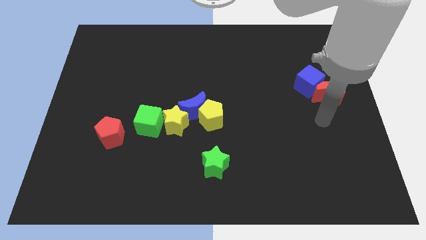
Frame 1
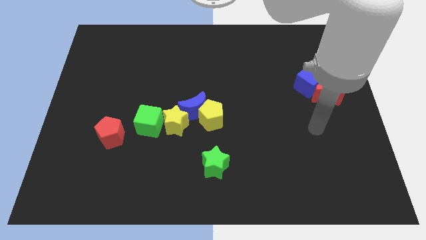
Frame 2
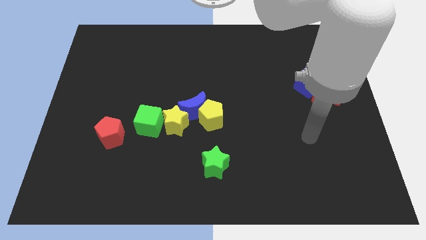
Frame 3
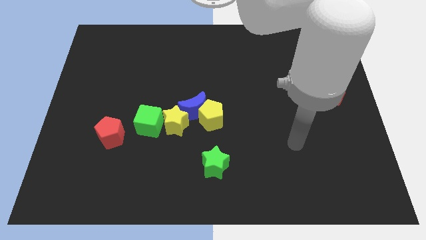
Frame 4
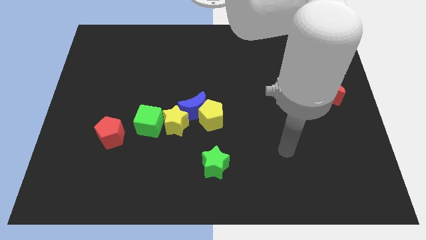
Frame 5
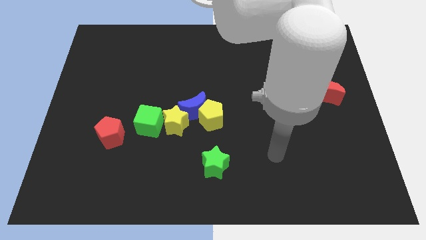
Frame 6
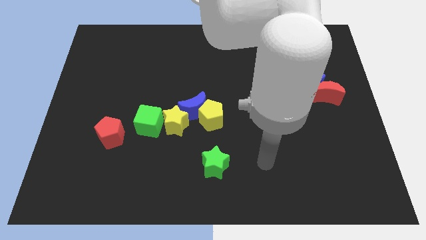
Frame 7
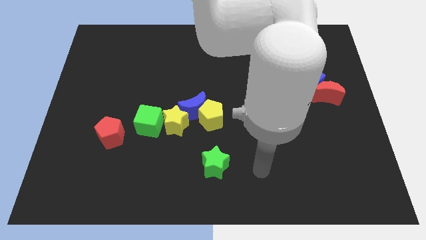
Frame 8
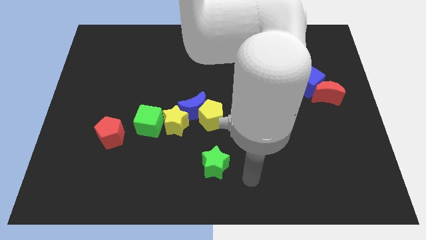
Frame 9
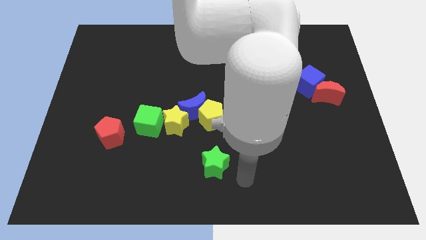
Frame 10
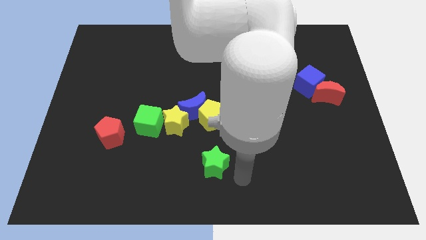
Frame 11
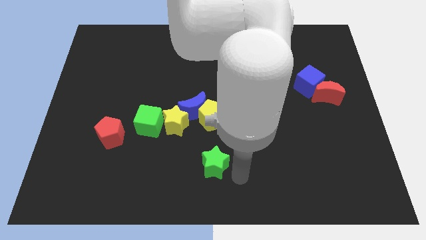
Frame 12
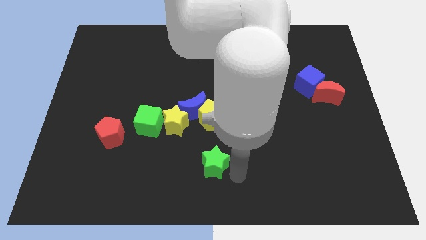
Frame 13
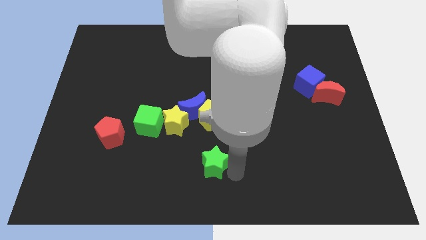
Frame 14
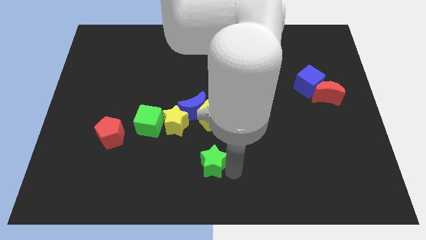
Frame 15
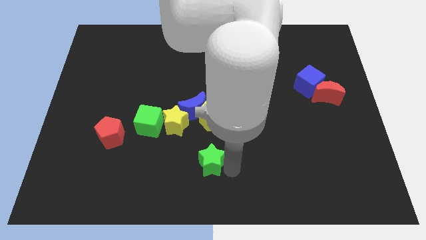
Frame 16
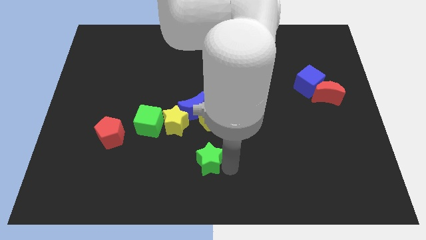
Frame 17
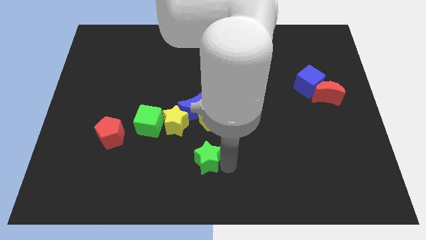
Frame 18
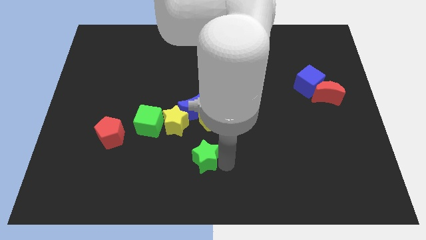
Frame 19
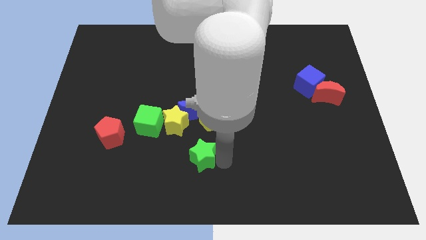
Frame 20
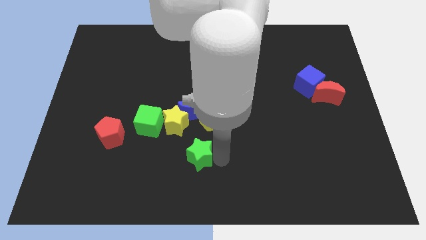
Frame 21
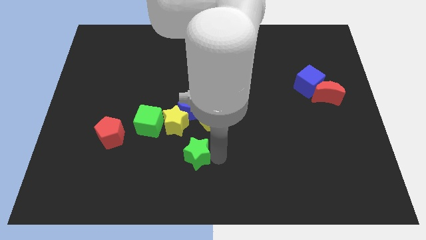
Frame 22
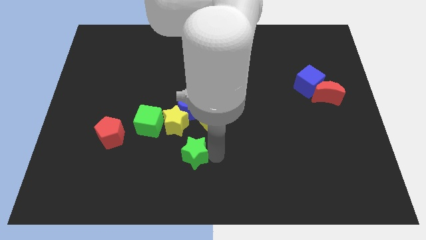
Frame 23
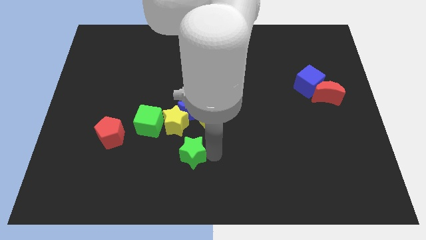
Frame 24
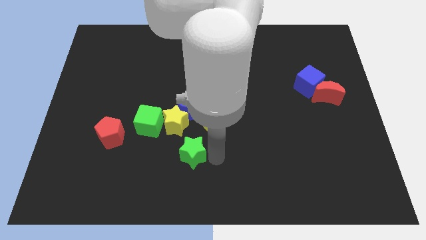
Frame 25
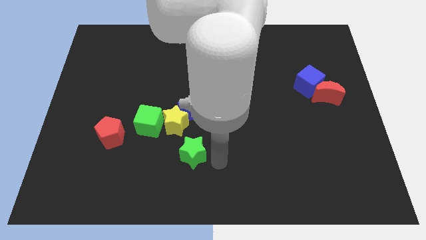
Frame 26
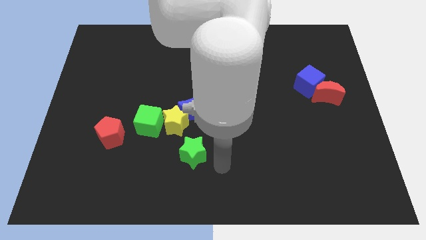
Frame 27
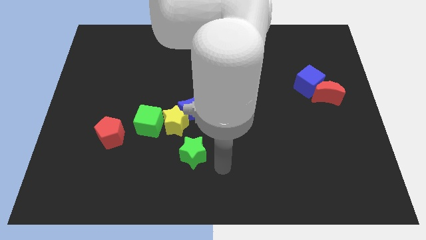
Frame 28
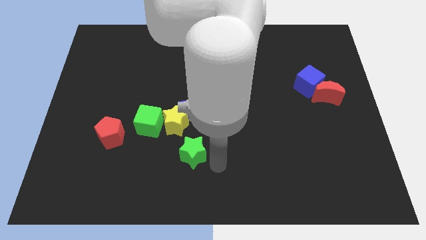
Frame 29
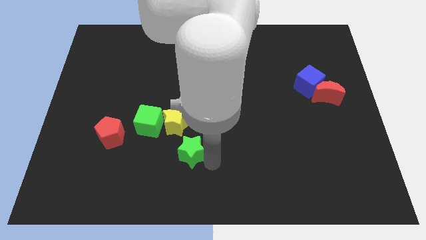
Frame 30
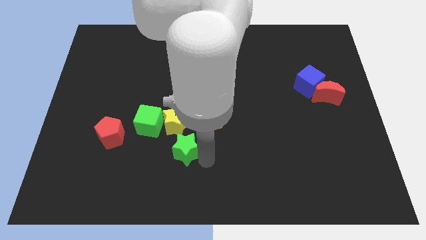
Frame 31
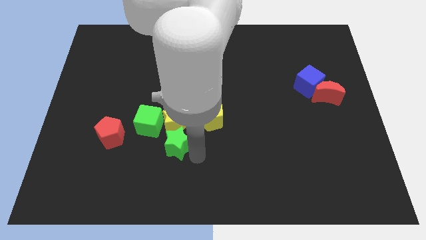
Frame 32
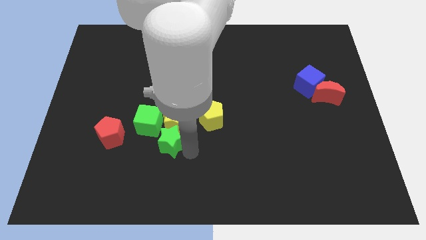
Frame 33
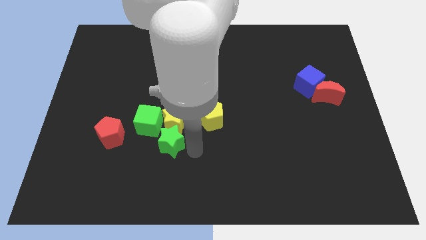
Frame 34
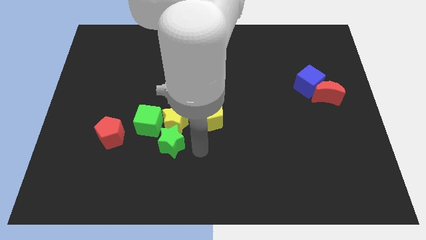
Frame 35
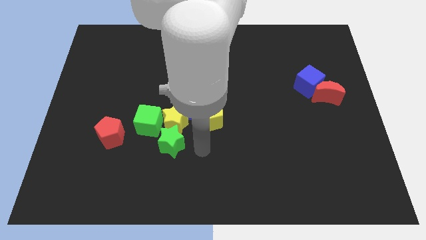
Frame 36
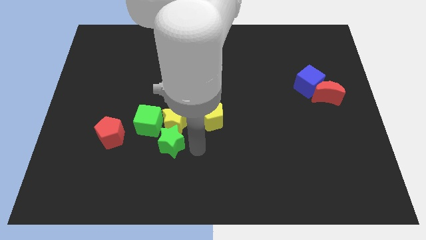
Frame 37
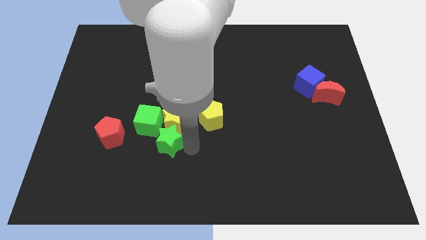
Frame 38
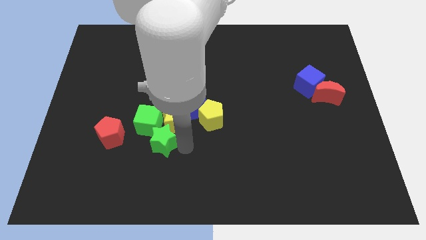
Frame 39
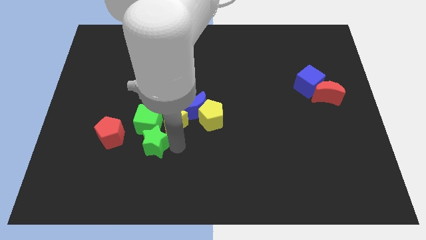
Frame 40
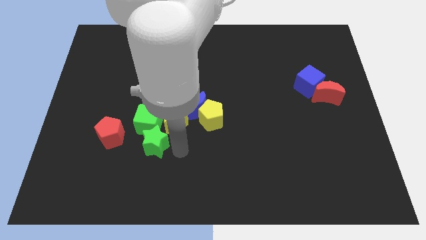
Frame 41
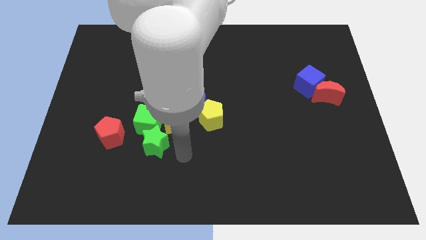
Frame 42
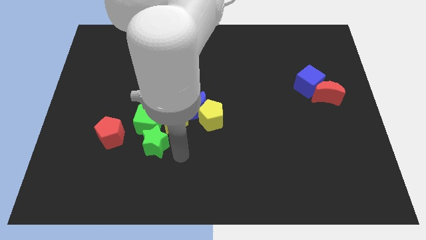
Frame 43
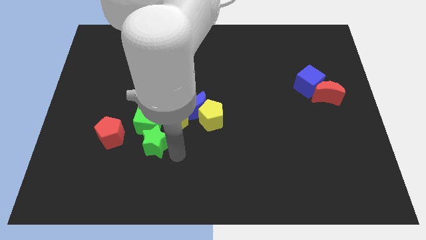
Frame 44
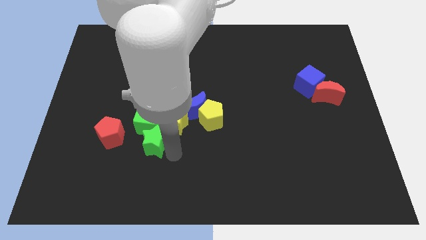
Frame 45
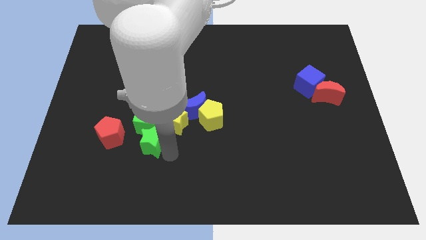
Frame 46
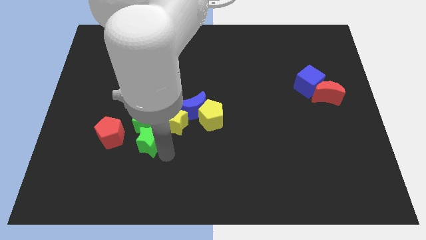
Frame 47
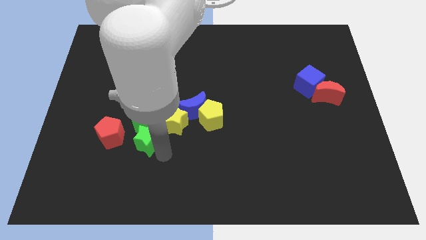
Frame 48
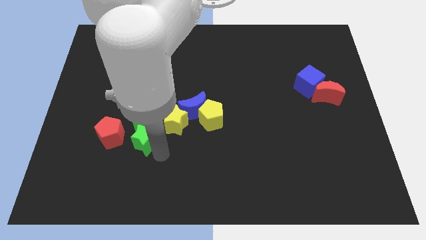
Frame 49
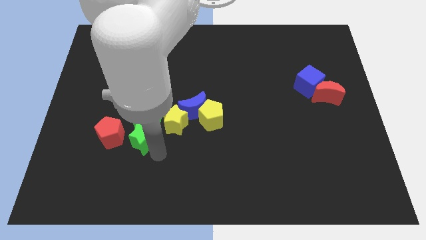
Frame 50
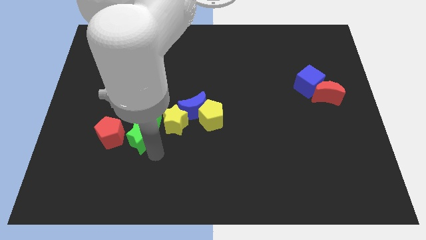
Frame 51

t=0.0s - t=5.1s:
move the green star just left of the yellow star

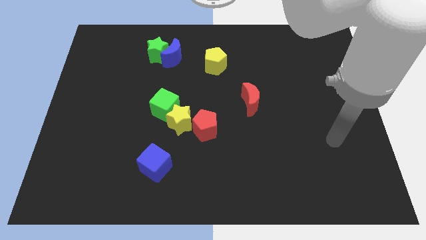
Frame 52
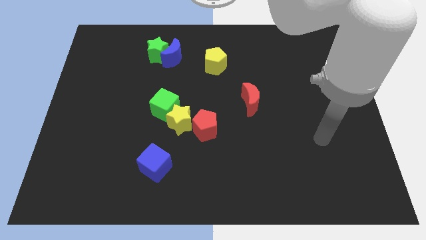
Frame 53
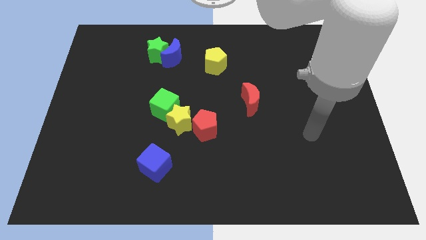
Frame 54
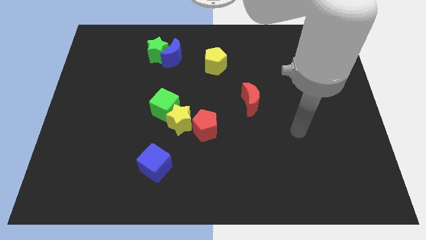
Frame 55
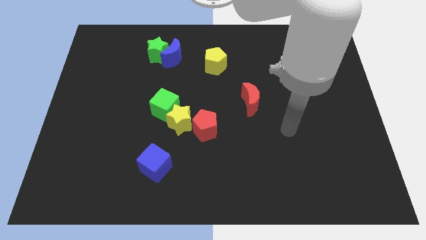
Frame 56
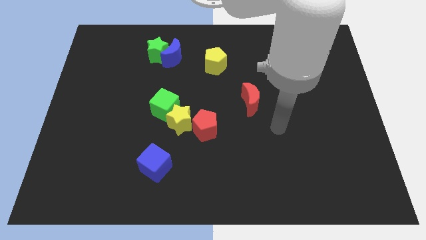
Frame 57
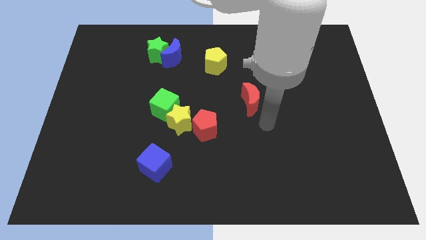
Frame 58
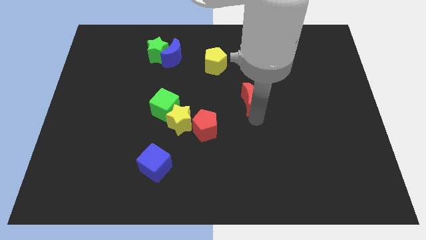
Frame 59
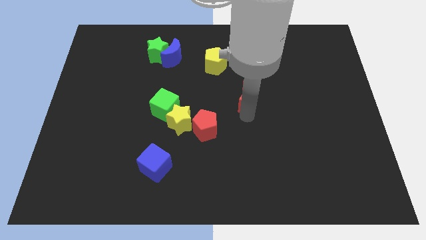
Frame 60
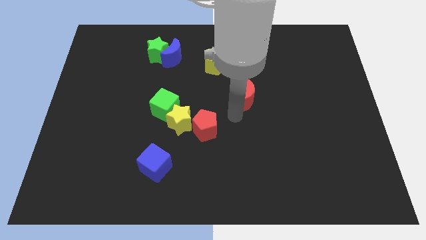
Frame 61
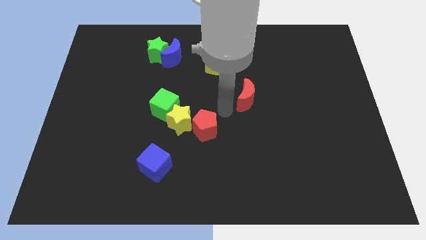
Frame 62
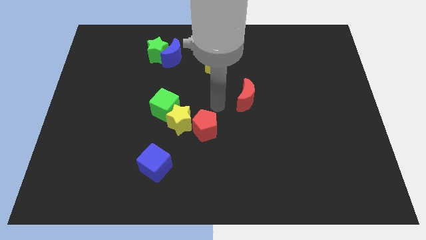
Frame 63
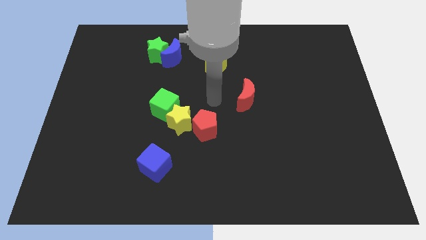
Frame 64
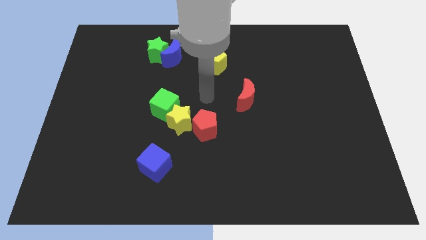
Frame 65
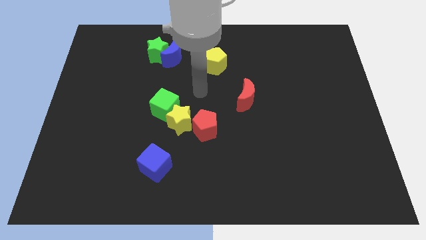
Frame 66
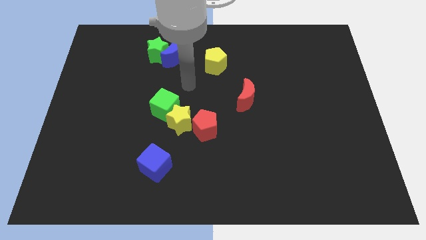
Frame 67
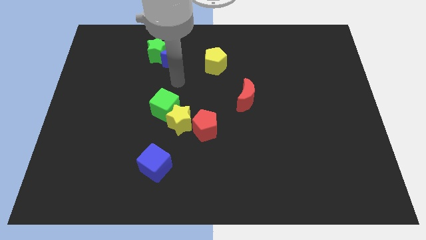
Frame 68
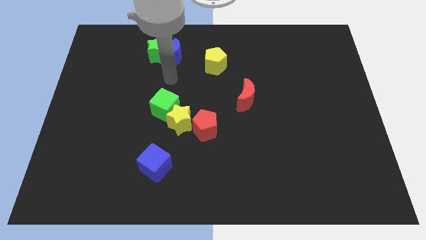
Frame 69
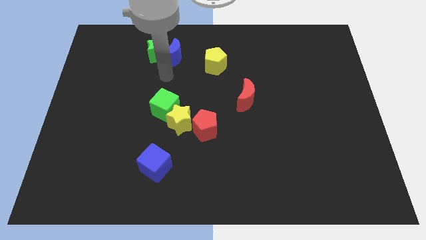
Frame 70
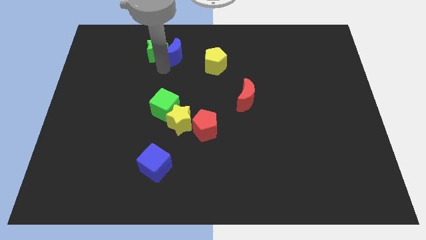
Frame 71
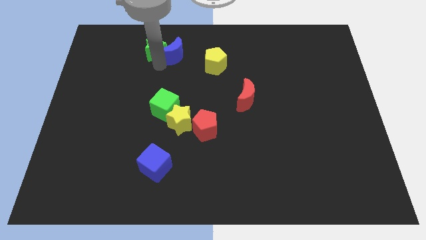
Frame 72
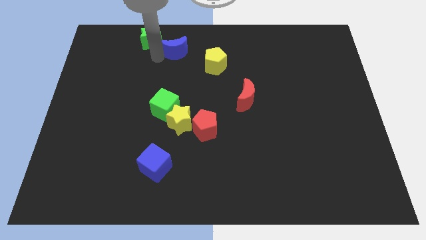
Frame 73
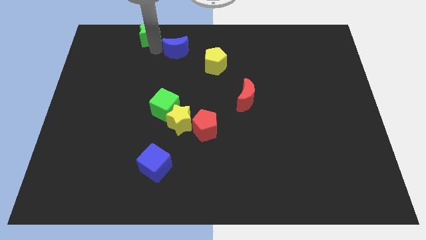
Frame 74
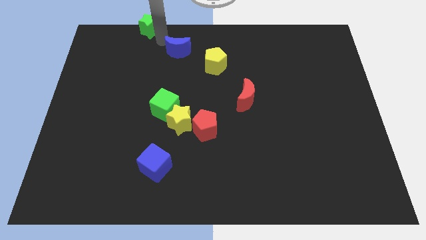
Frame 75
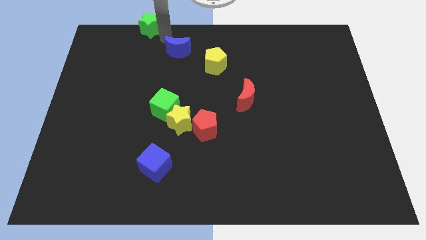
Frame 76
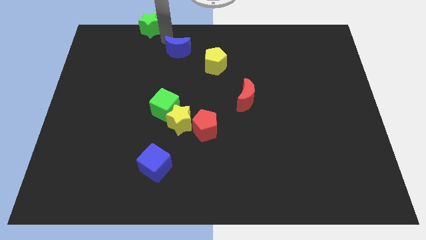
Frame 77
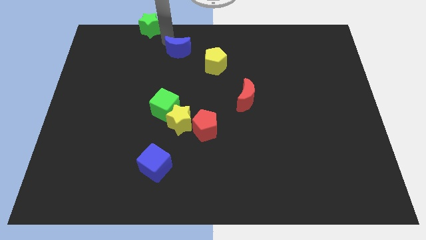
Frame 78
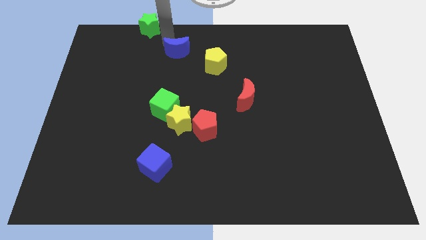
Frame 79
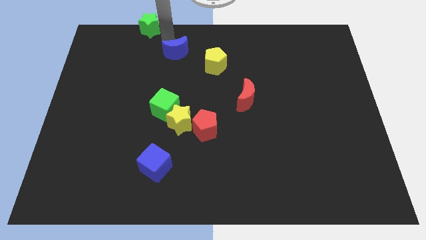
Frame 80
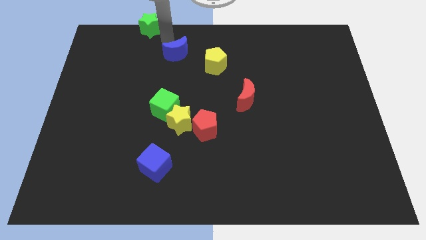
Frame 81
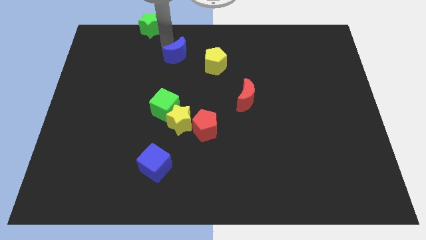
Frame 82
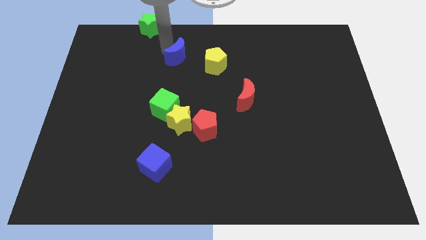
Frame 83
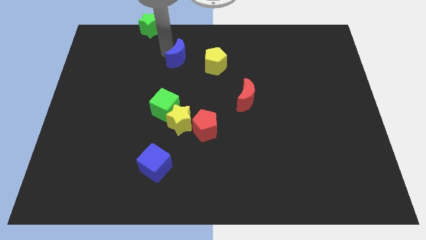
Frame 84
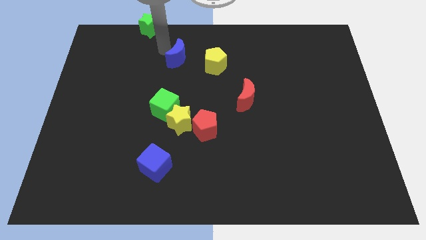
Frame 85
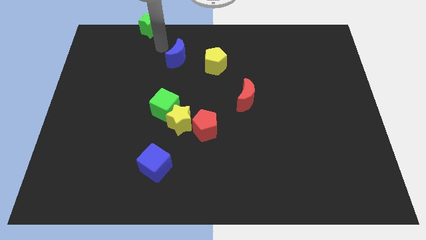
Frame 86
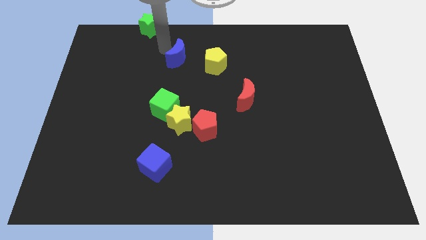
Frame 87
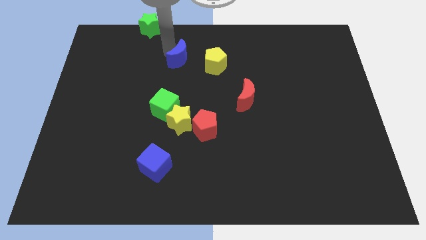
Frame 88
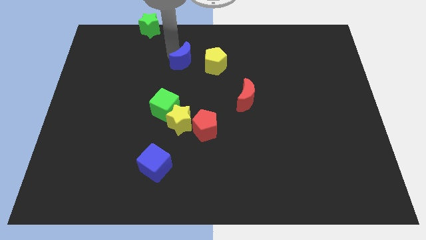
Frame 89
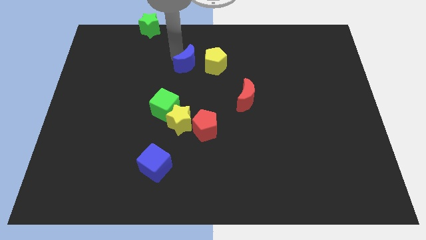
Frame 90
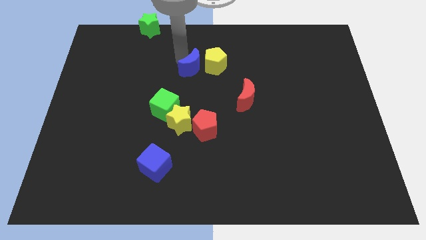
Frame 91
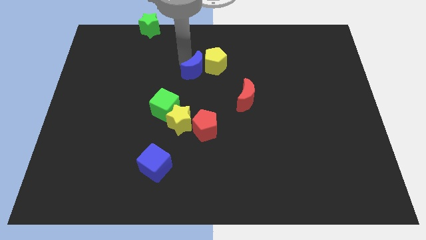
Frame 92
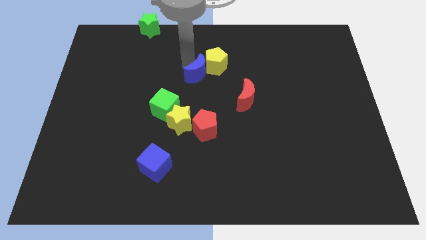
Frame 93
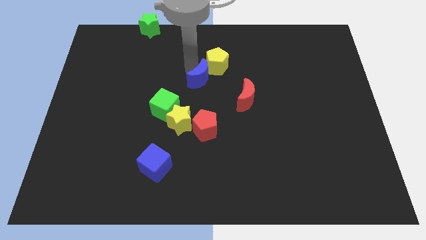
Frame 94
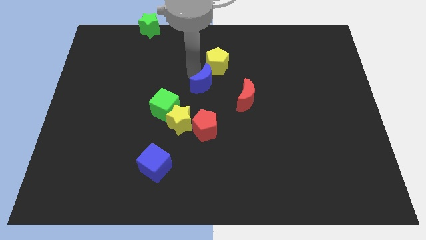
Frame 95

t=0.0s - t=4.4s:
slide the blue moon to the top left of the red moon
